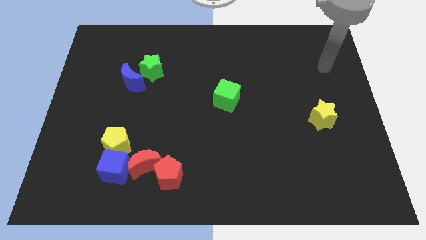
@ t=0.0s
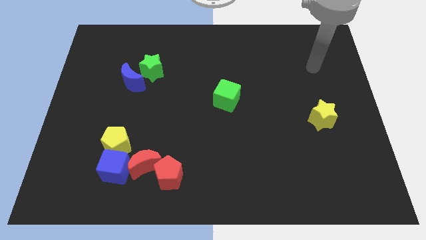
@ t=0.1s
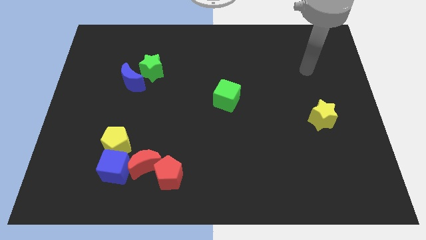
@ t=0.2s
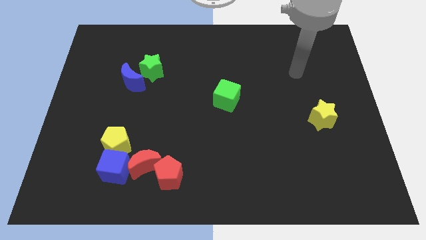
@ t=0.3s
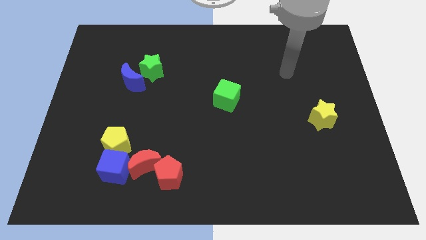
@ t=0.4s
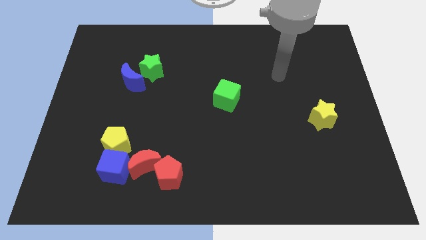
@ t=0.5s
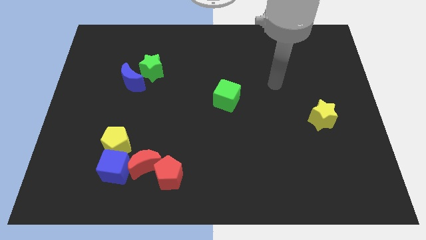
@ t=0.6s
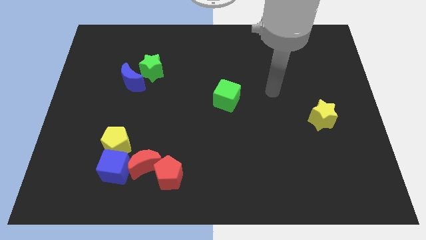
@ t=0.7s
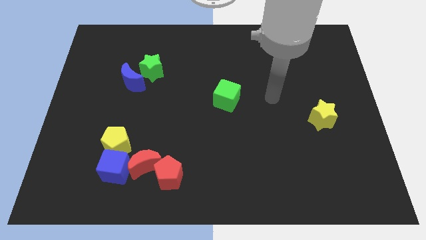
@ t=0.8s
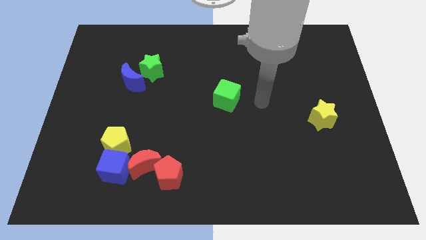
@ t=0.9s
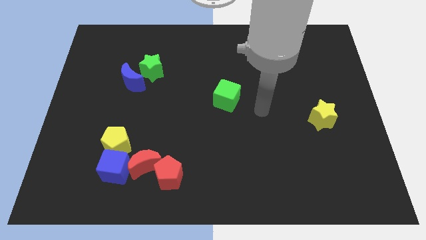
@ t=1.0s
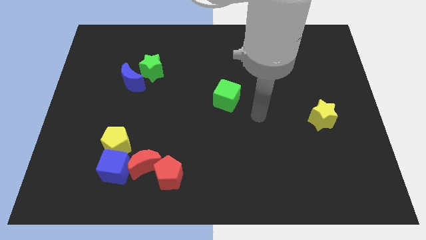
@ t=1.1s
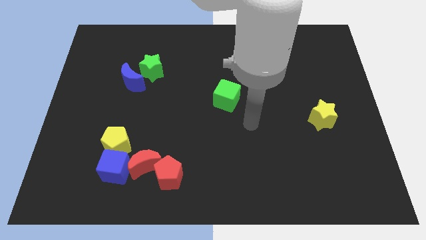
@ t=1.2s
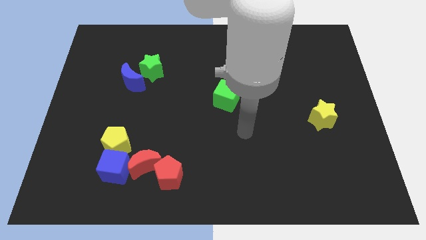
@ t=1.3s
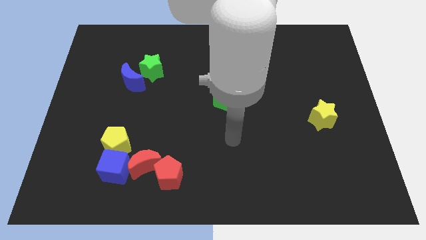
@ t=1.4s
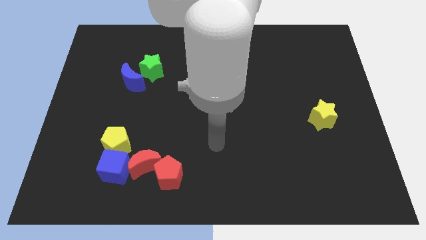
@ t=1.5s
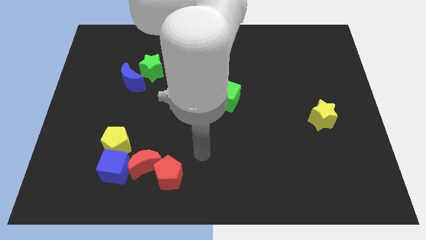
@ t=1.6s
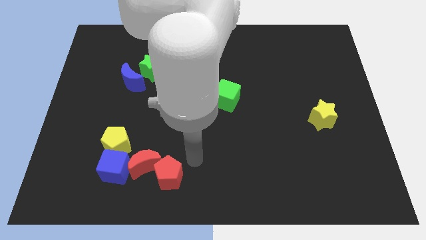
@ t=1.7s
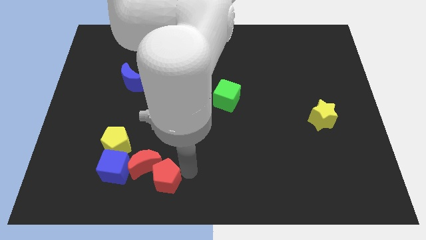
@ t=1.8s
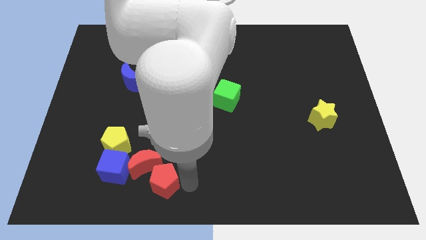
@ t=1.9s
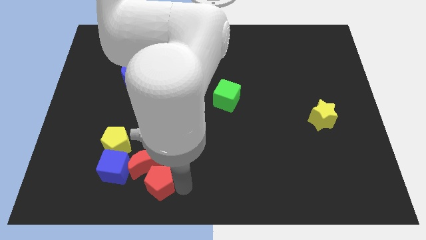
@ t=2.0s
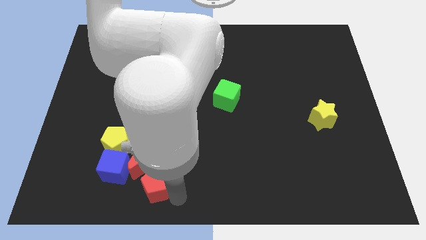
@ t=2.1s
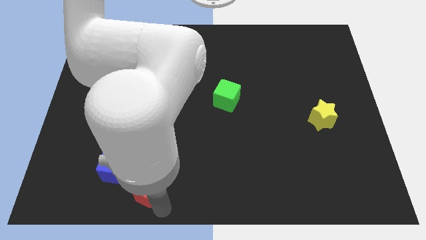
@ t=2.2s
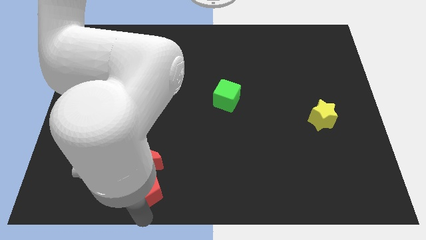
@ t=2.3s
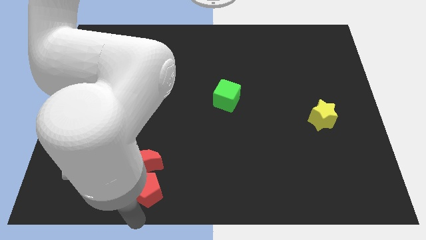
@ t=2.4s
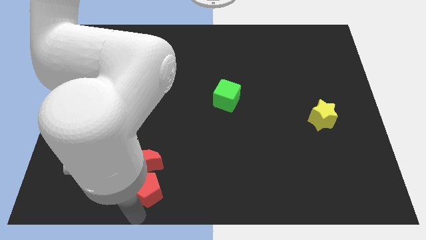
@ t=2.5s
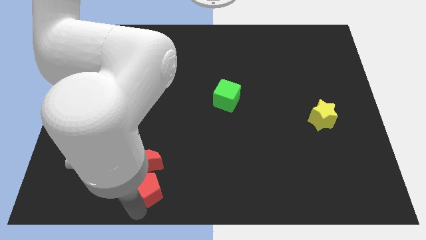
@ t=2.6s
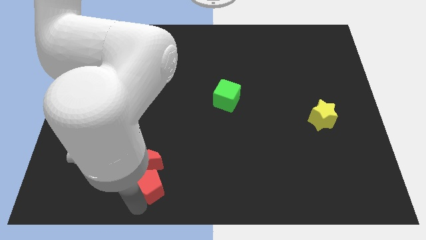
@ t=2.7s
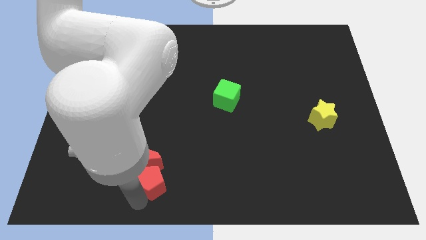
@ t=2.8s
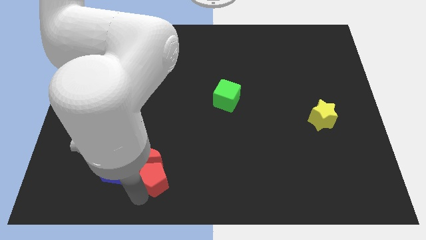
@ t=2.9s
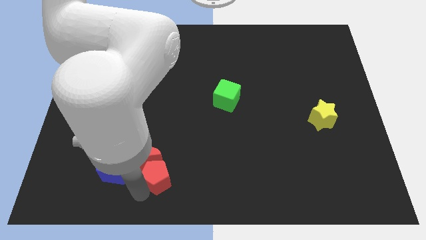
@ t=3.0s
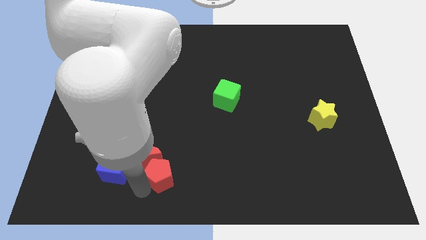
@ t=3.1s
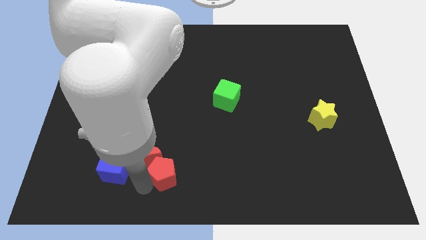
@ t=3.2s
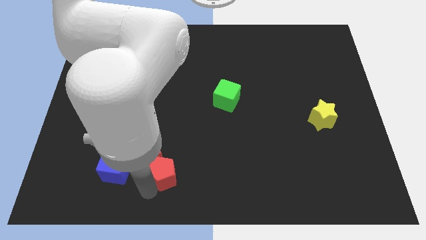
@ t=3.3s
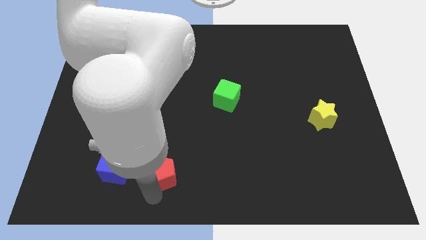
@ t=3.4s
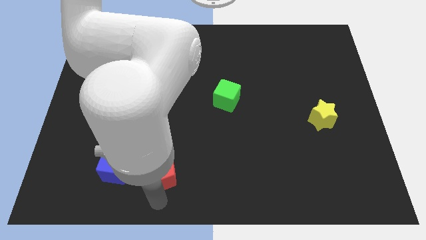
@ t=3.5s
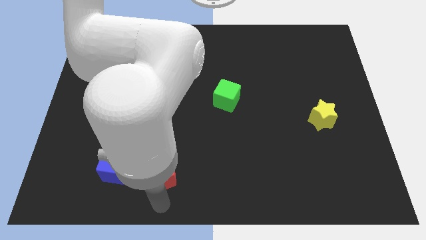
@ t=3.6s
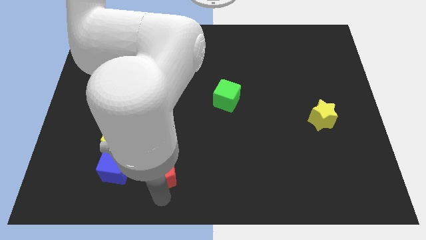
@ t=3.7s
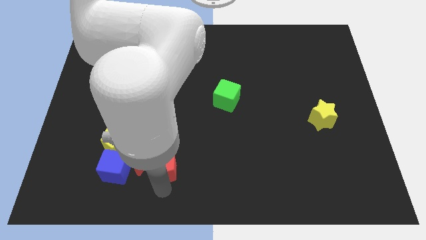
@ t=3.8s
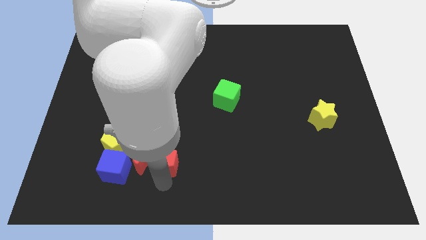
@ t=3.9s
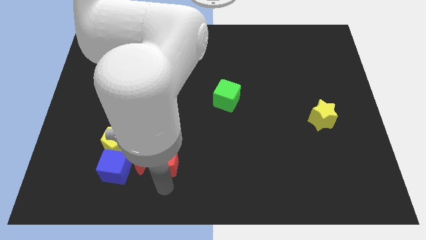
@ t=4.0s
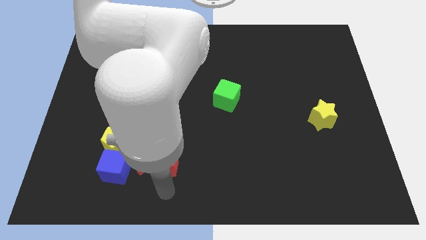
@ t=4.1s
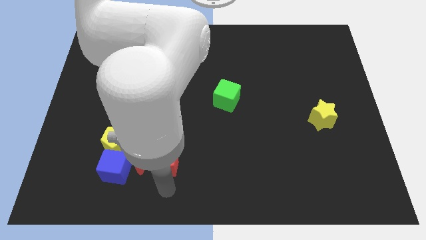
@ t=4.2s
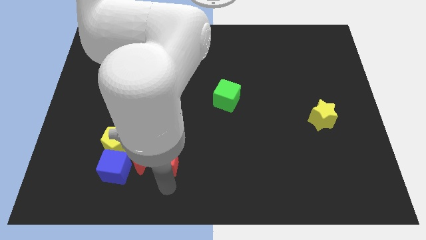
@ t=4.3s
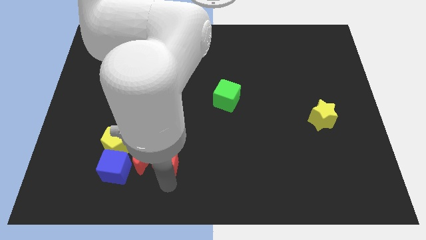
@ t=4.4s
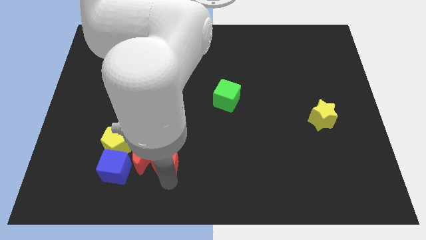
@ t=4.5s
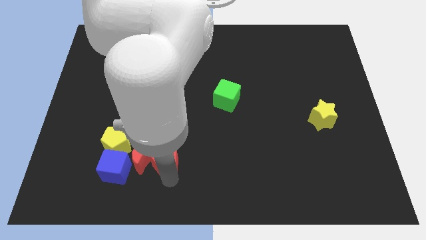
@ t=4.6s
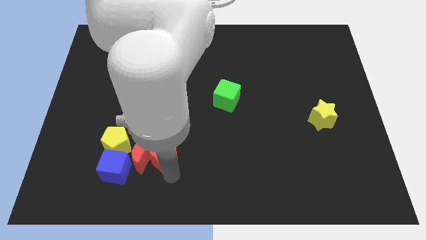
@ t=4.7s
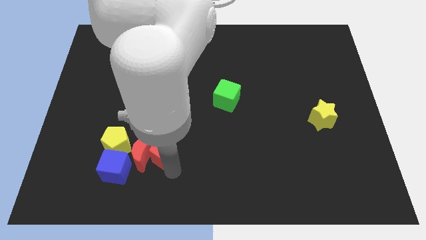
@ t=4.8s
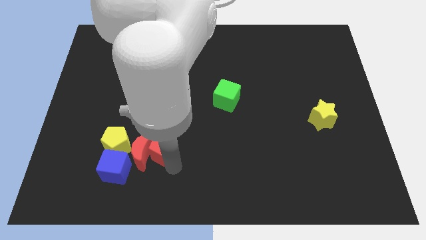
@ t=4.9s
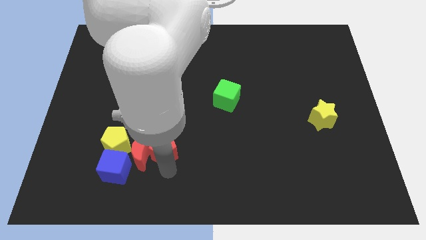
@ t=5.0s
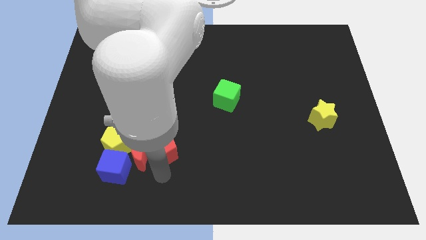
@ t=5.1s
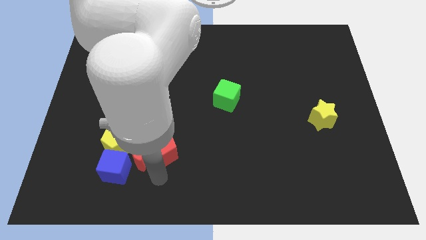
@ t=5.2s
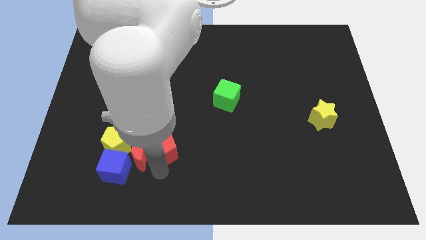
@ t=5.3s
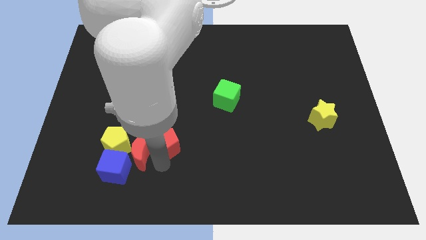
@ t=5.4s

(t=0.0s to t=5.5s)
move the red pentagon up a little

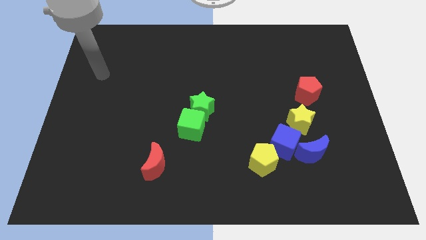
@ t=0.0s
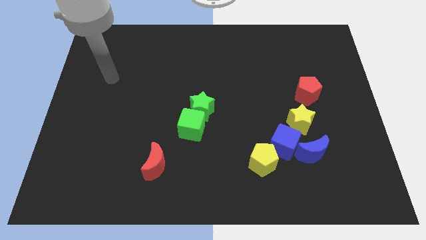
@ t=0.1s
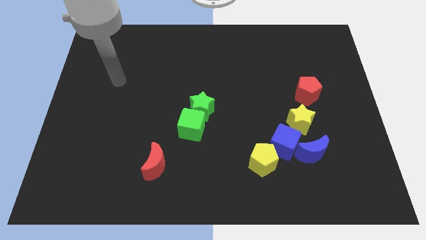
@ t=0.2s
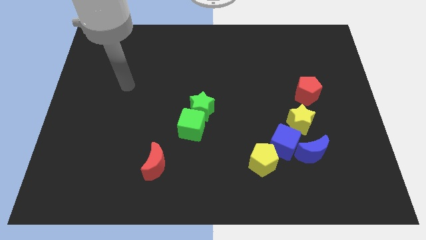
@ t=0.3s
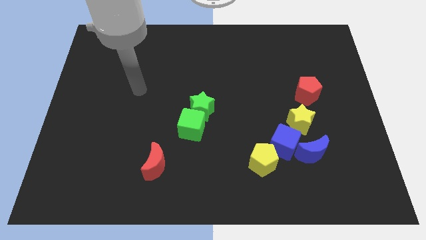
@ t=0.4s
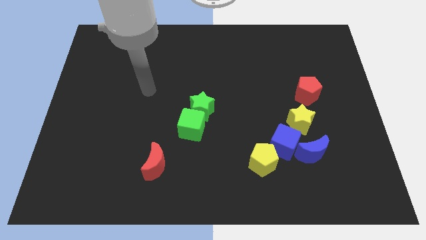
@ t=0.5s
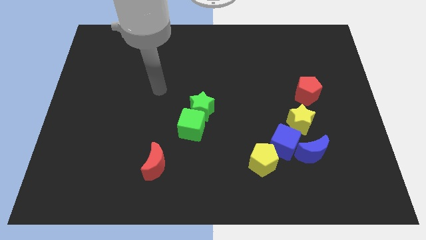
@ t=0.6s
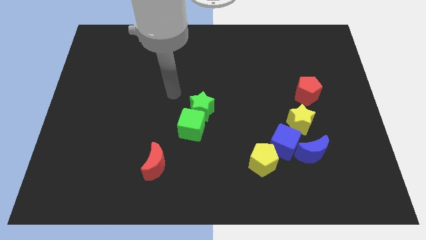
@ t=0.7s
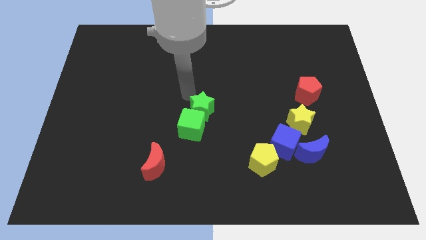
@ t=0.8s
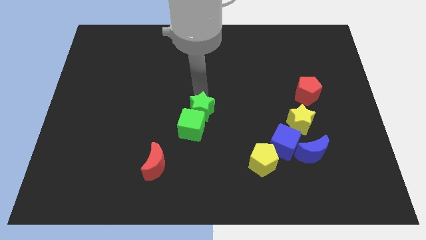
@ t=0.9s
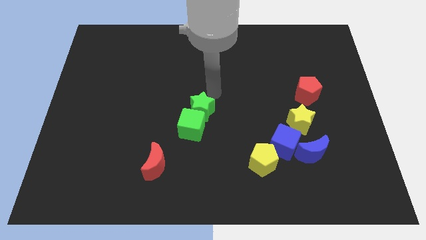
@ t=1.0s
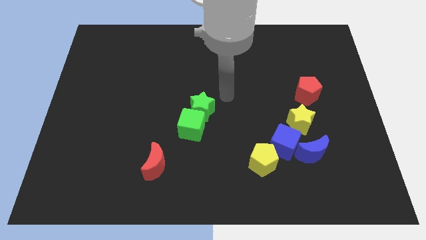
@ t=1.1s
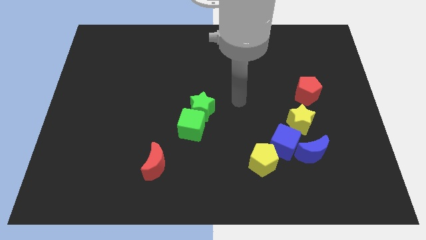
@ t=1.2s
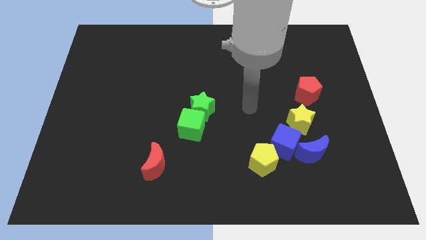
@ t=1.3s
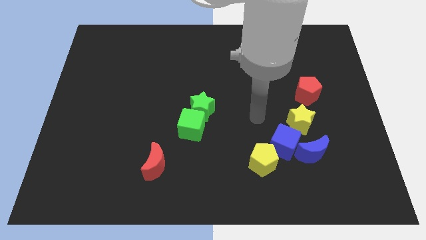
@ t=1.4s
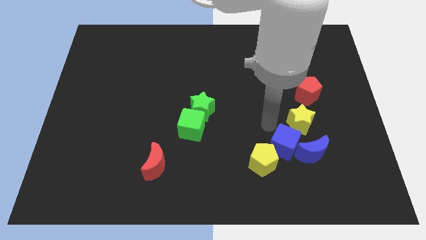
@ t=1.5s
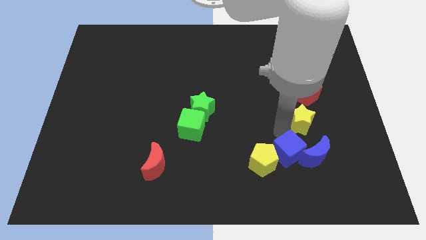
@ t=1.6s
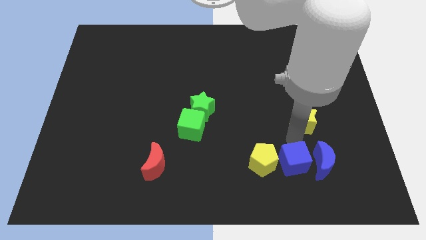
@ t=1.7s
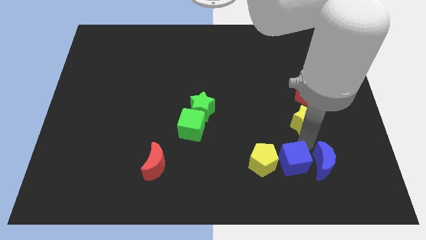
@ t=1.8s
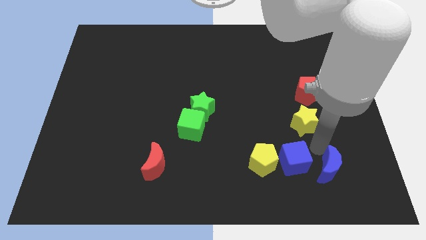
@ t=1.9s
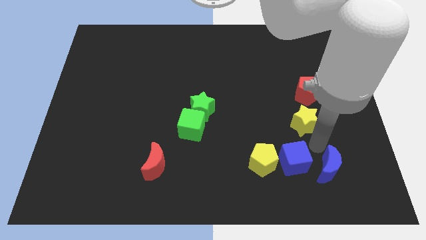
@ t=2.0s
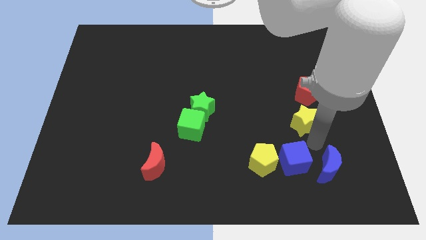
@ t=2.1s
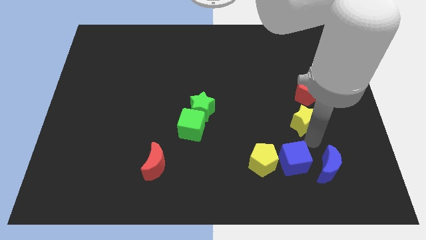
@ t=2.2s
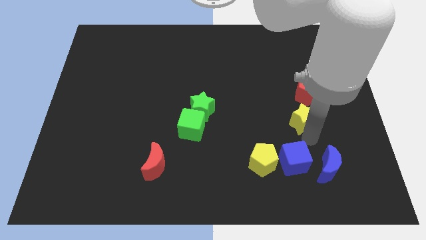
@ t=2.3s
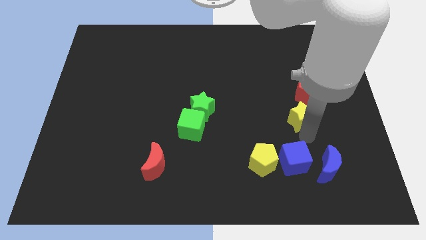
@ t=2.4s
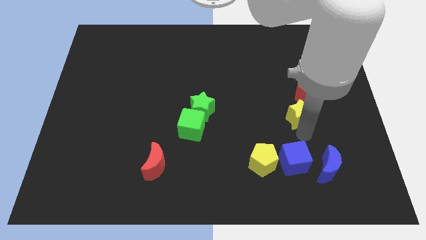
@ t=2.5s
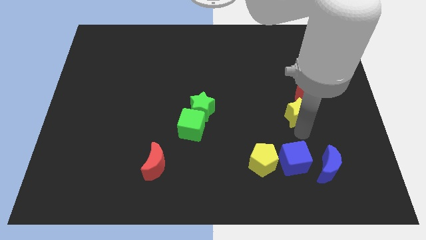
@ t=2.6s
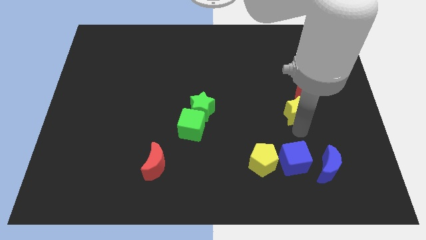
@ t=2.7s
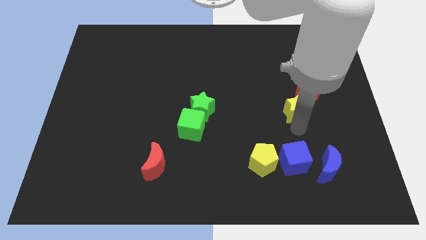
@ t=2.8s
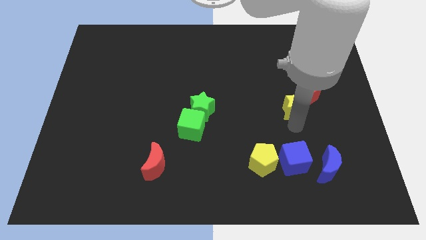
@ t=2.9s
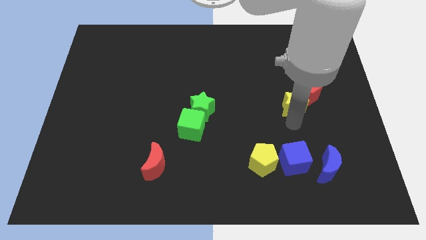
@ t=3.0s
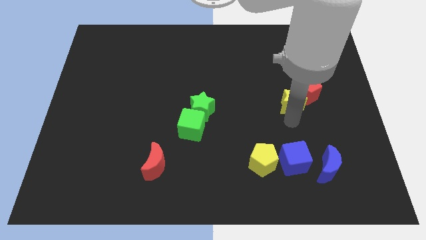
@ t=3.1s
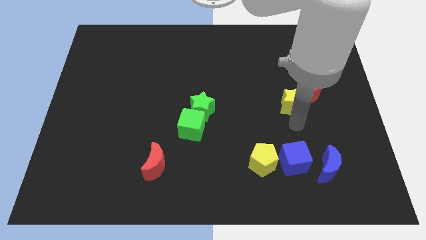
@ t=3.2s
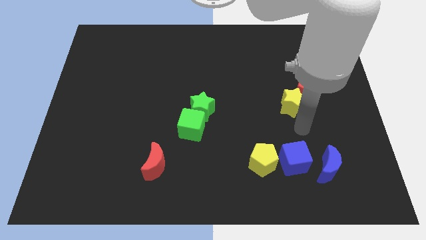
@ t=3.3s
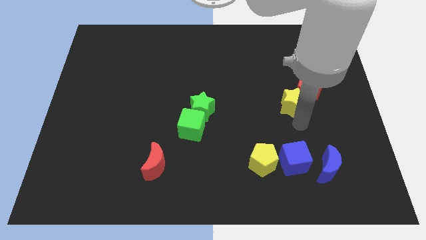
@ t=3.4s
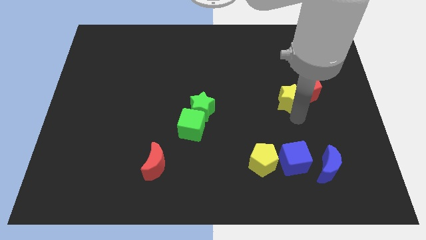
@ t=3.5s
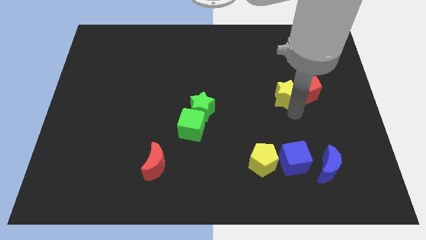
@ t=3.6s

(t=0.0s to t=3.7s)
slide the yellow star up a little bit
